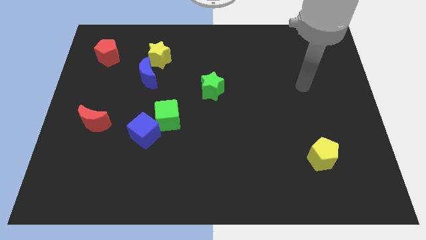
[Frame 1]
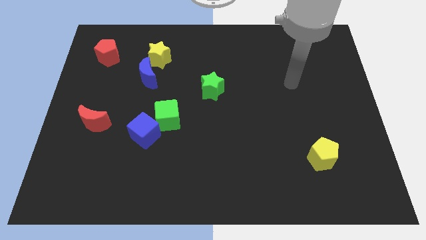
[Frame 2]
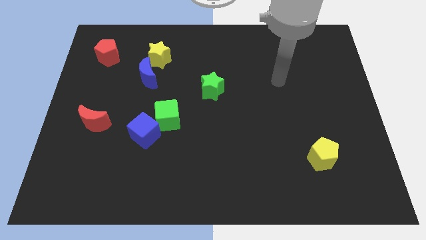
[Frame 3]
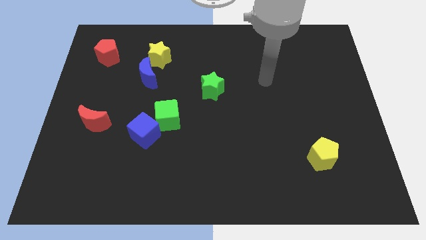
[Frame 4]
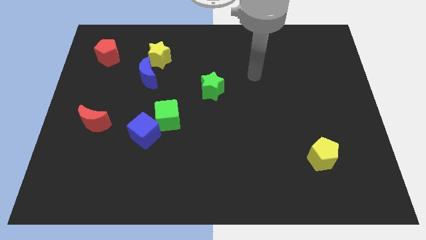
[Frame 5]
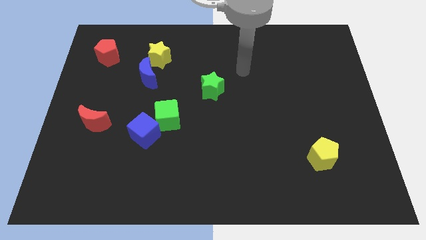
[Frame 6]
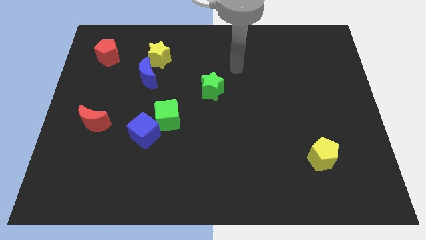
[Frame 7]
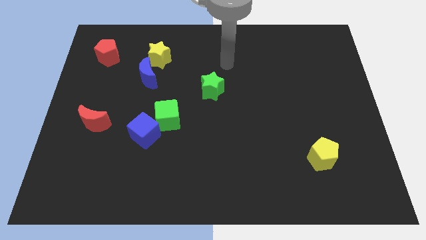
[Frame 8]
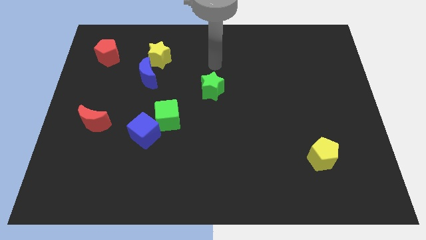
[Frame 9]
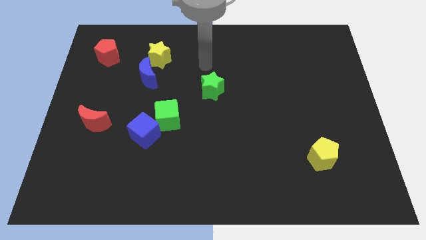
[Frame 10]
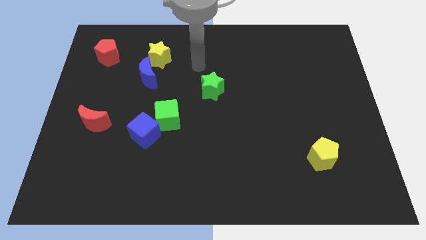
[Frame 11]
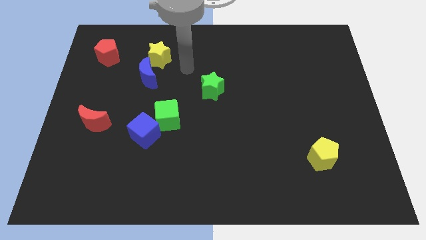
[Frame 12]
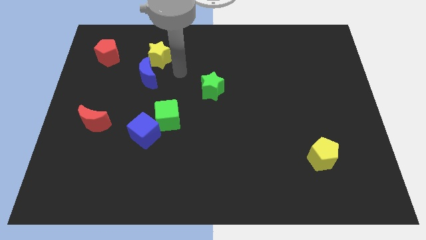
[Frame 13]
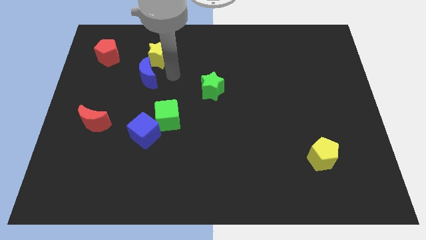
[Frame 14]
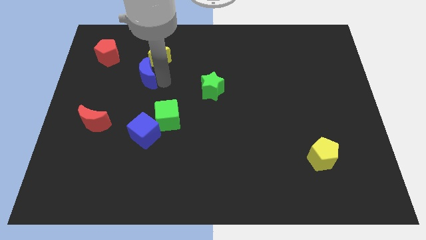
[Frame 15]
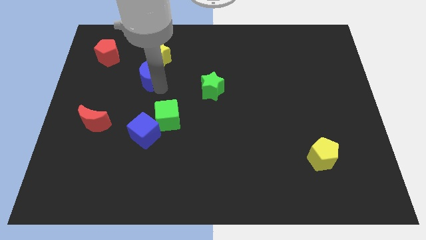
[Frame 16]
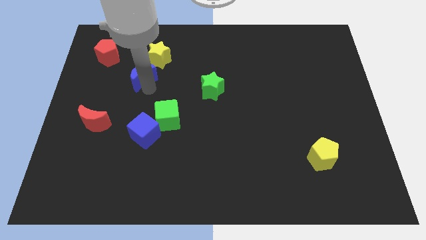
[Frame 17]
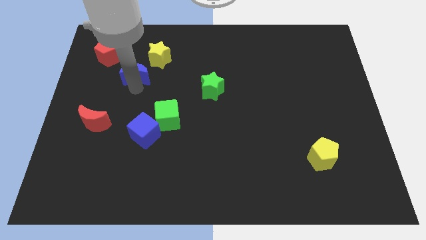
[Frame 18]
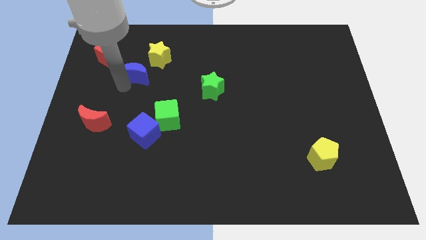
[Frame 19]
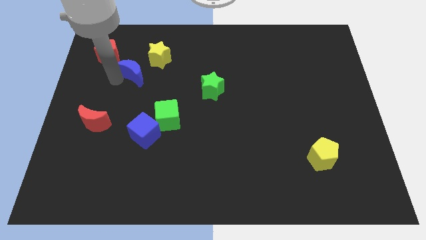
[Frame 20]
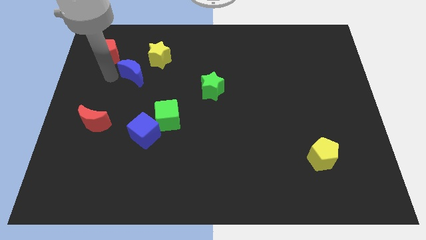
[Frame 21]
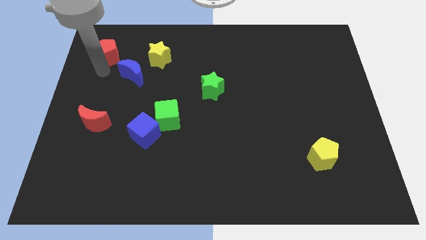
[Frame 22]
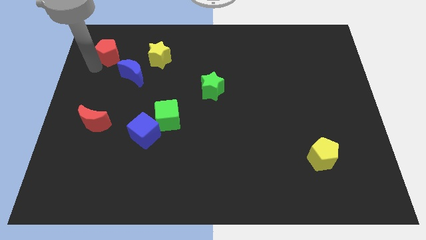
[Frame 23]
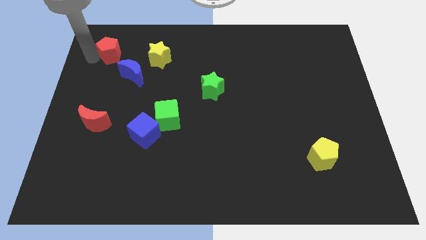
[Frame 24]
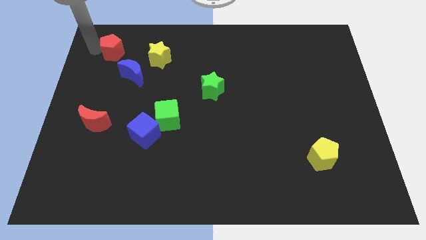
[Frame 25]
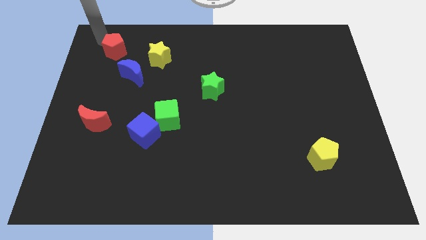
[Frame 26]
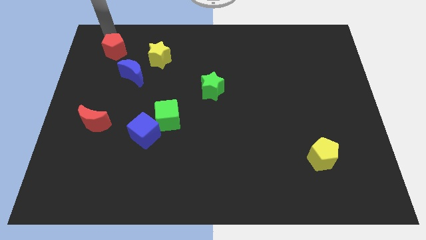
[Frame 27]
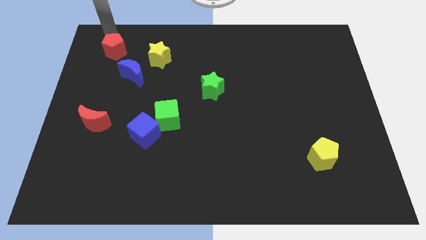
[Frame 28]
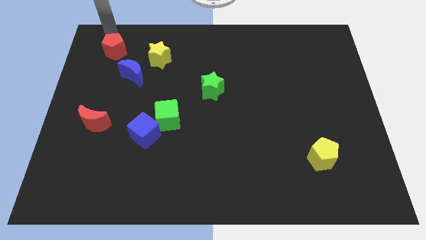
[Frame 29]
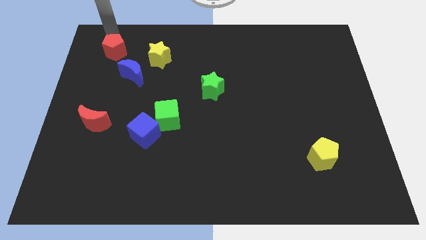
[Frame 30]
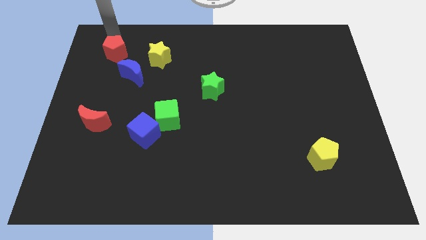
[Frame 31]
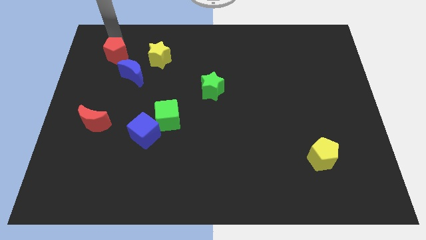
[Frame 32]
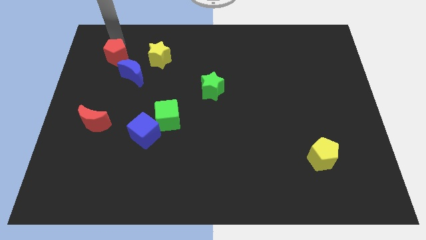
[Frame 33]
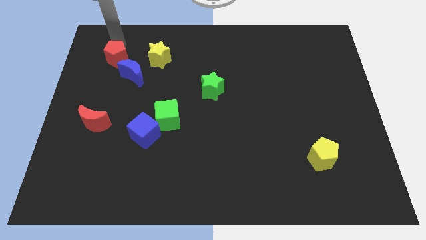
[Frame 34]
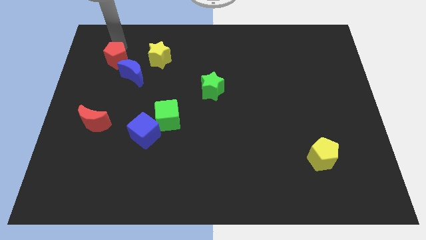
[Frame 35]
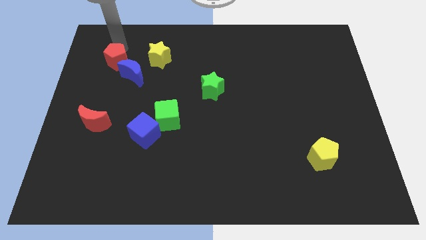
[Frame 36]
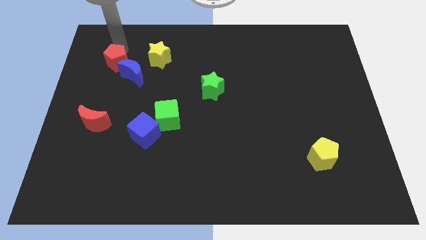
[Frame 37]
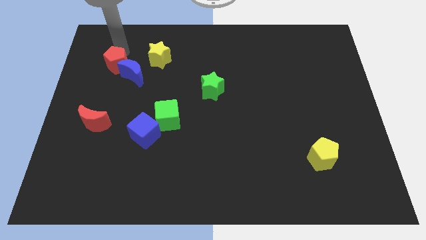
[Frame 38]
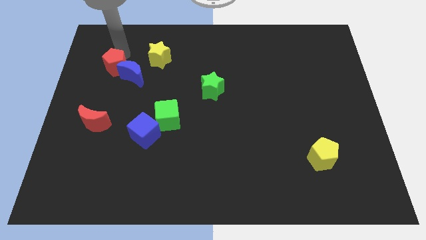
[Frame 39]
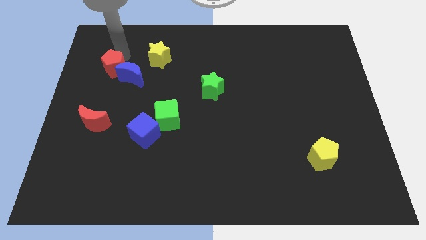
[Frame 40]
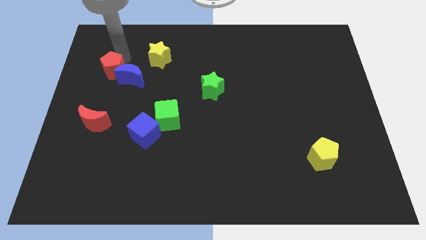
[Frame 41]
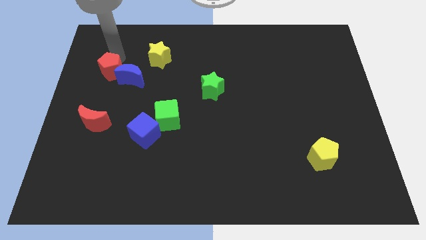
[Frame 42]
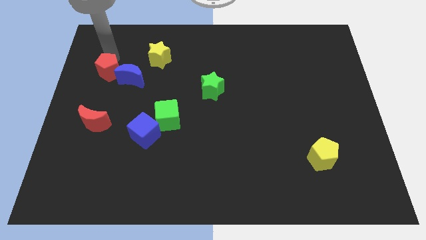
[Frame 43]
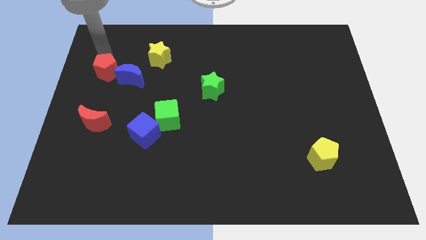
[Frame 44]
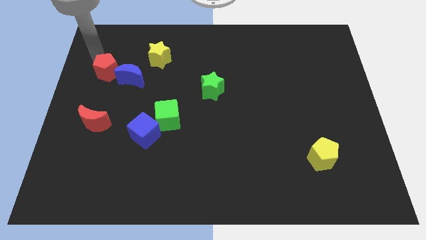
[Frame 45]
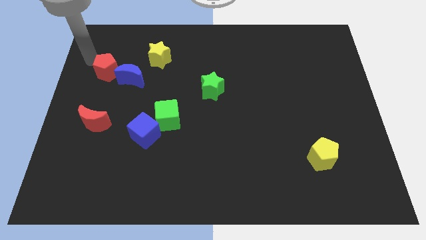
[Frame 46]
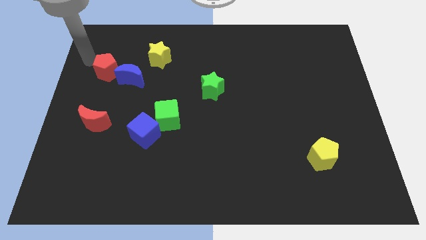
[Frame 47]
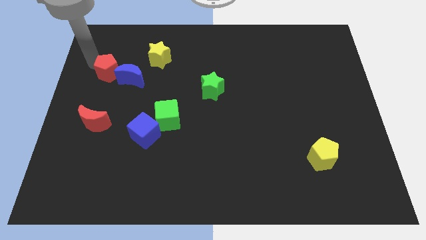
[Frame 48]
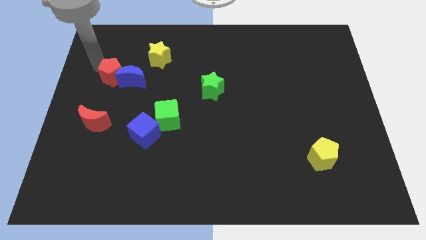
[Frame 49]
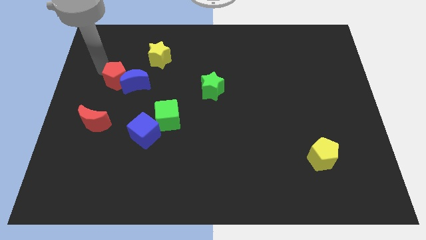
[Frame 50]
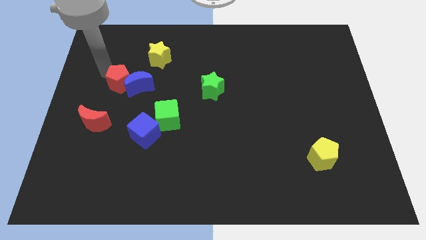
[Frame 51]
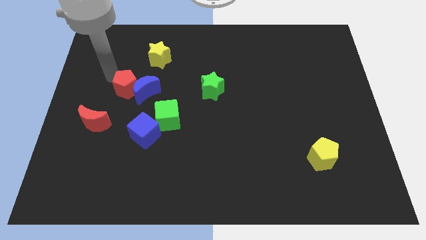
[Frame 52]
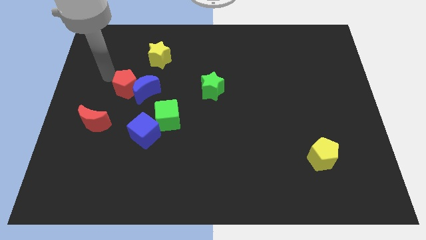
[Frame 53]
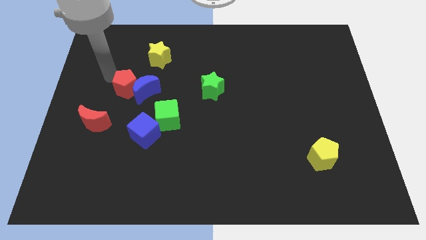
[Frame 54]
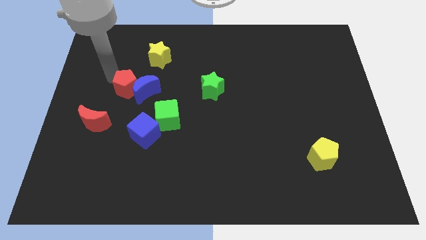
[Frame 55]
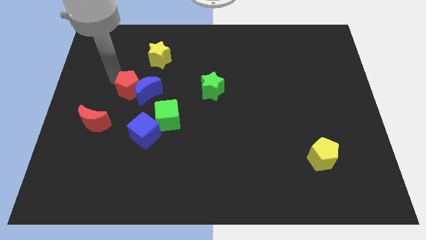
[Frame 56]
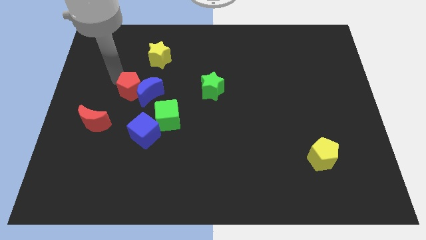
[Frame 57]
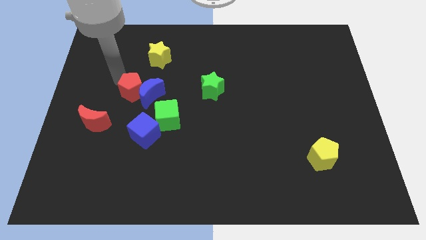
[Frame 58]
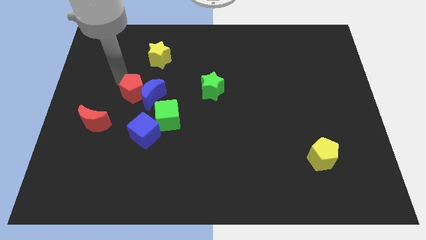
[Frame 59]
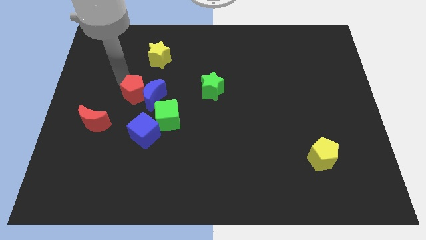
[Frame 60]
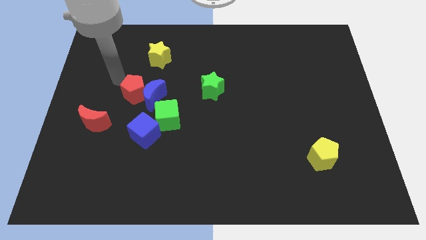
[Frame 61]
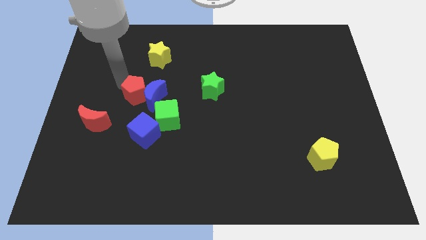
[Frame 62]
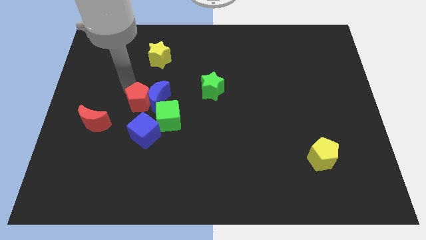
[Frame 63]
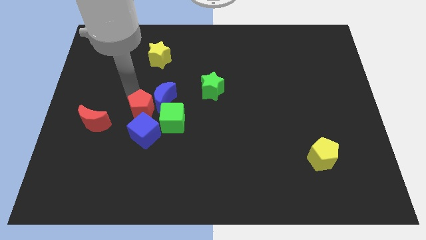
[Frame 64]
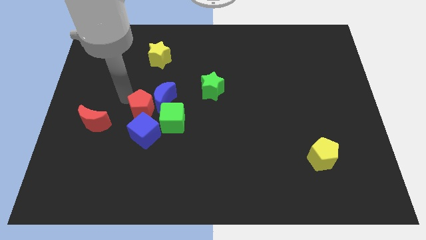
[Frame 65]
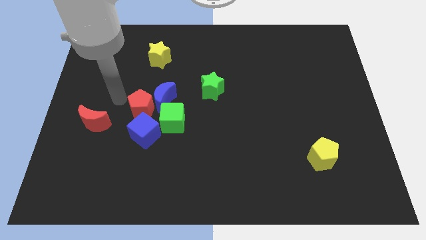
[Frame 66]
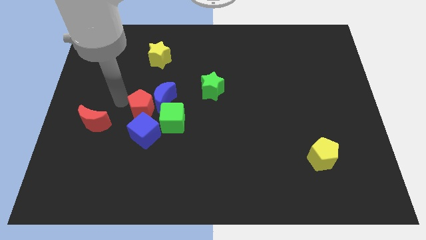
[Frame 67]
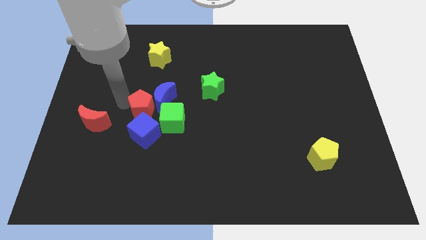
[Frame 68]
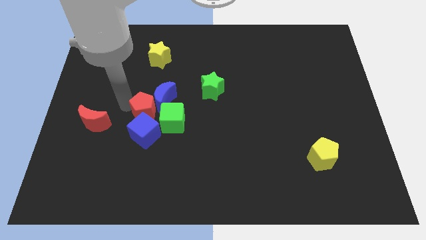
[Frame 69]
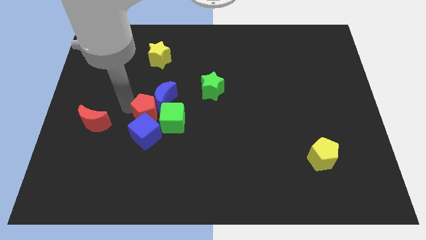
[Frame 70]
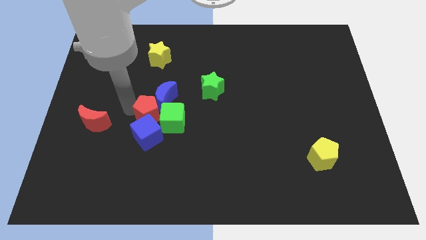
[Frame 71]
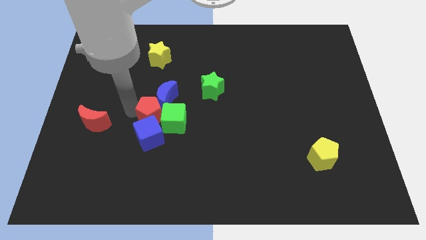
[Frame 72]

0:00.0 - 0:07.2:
push the red pentagon towards the green cube

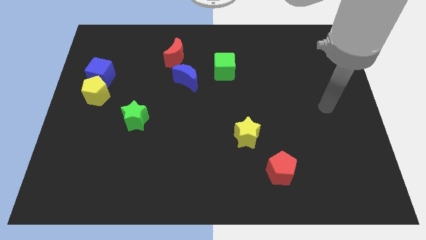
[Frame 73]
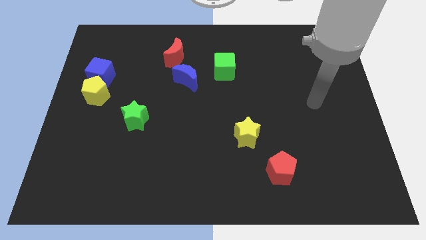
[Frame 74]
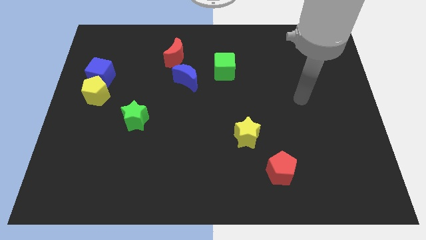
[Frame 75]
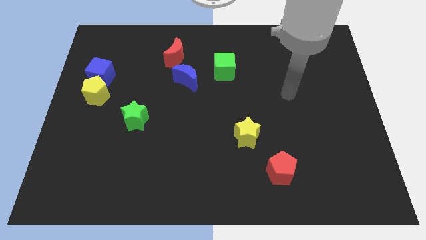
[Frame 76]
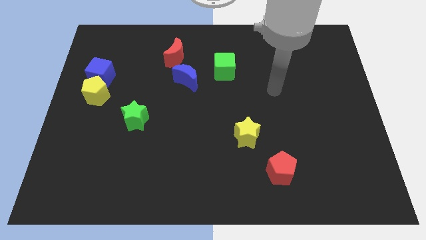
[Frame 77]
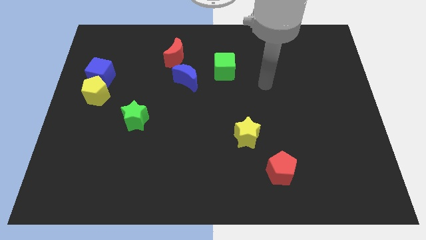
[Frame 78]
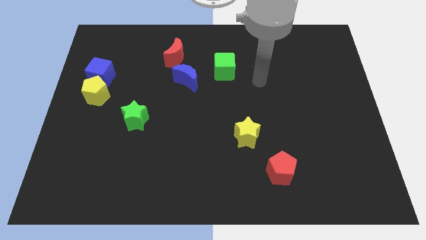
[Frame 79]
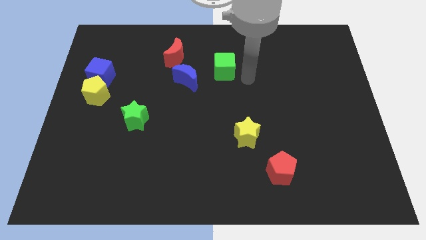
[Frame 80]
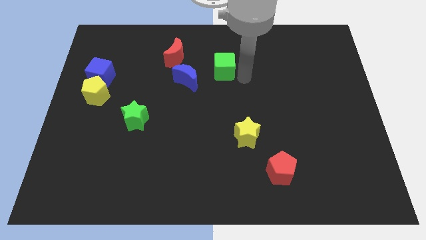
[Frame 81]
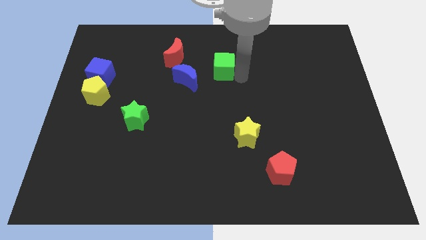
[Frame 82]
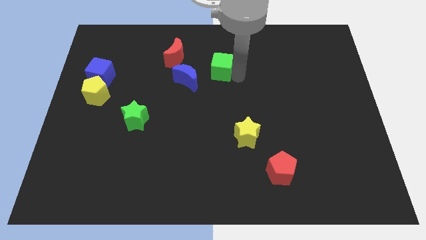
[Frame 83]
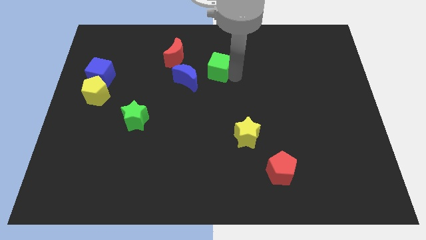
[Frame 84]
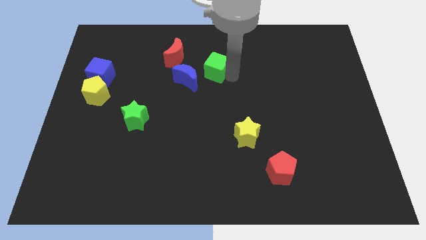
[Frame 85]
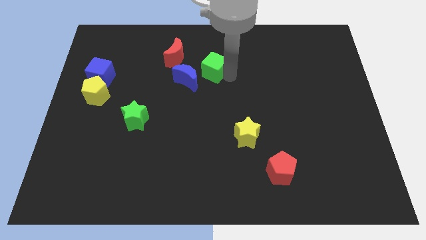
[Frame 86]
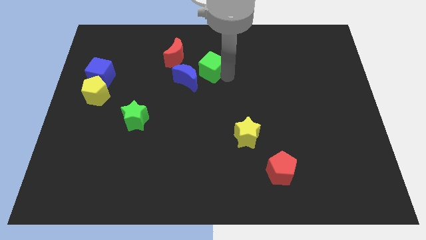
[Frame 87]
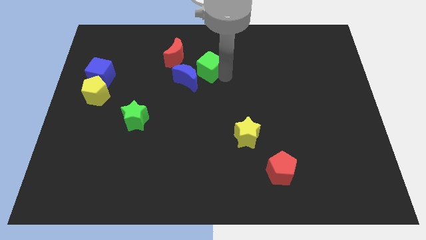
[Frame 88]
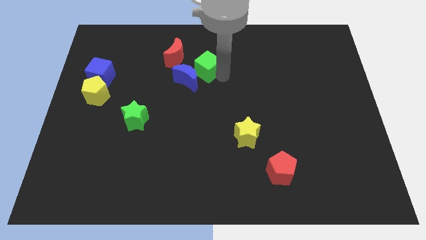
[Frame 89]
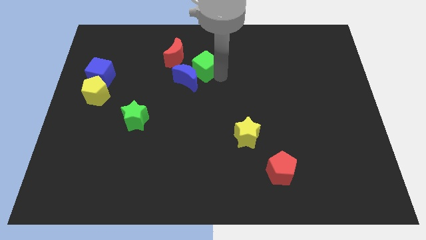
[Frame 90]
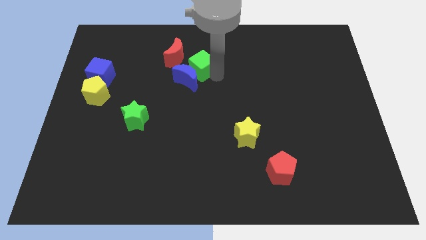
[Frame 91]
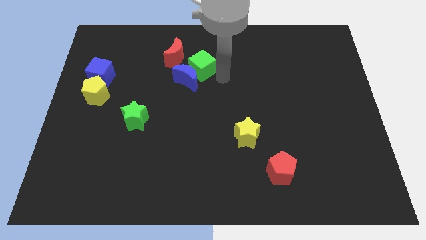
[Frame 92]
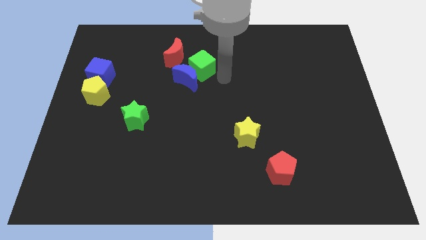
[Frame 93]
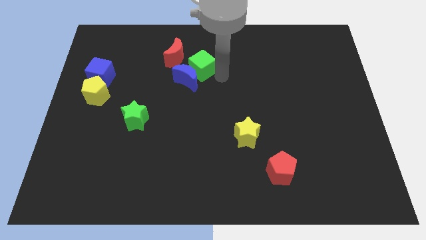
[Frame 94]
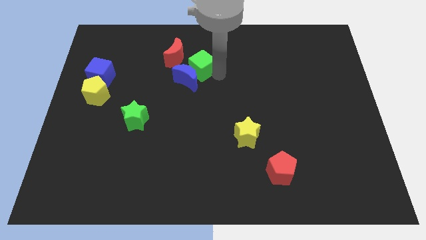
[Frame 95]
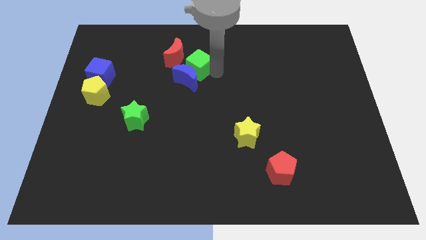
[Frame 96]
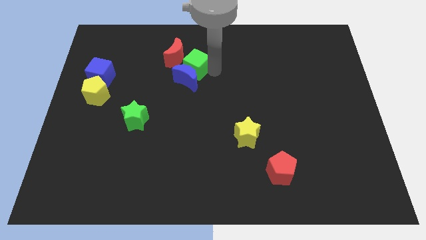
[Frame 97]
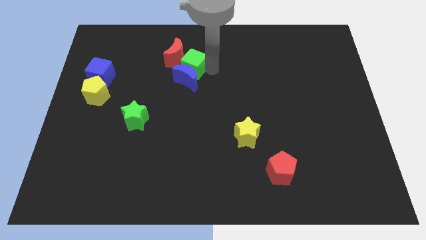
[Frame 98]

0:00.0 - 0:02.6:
put the green cube next to the red moon
